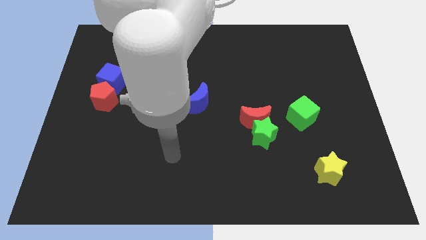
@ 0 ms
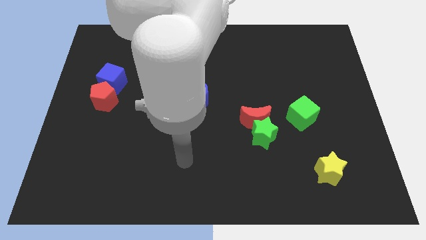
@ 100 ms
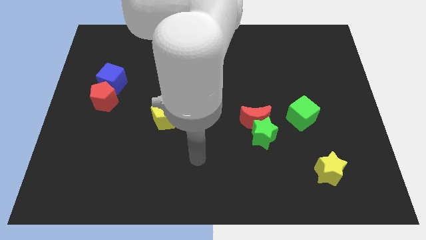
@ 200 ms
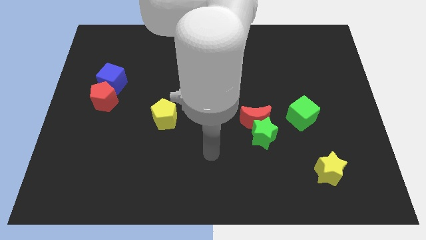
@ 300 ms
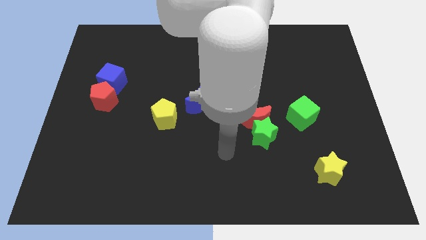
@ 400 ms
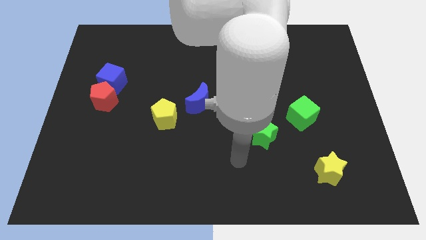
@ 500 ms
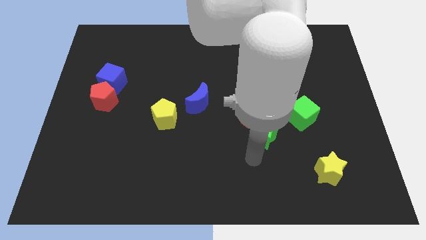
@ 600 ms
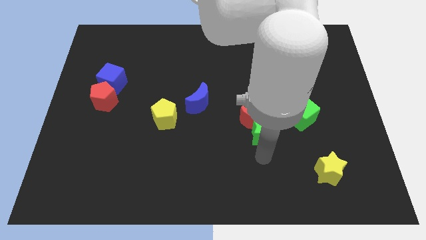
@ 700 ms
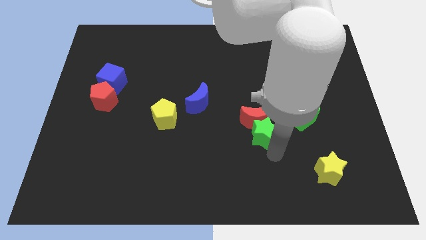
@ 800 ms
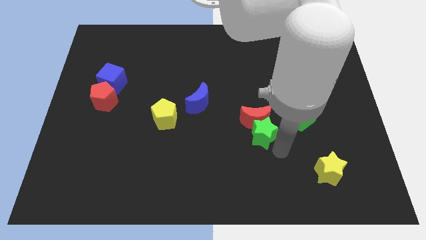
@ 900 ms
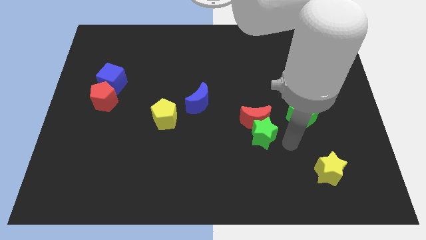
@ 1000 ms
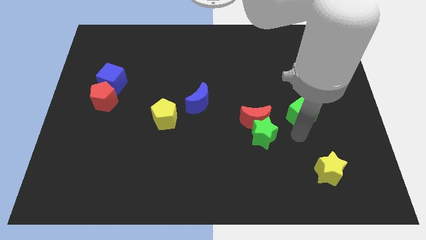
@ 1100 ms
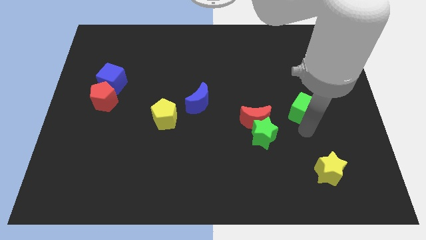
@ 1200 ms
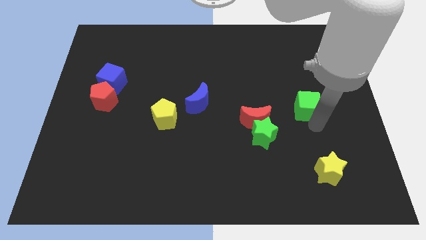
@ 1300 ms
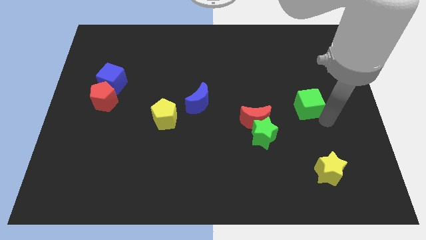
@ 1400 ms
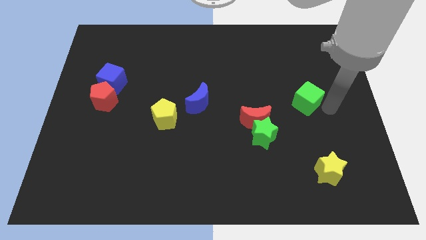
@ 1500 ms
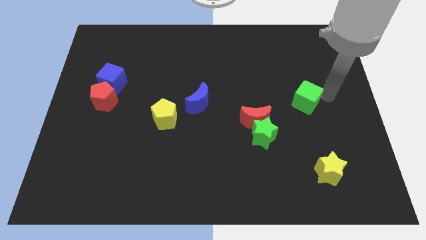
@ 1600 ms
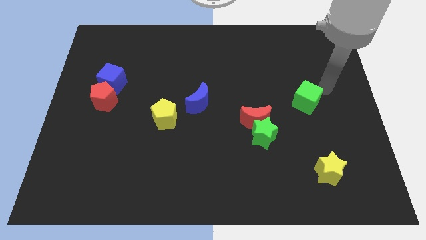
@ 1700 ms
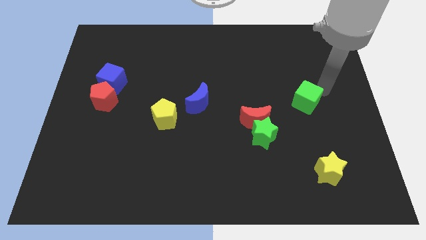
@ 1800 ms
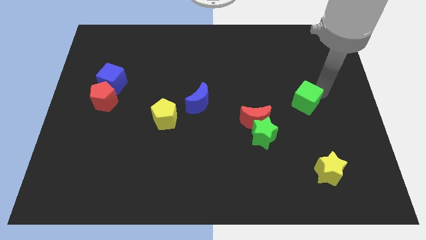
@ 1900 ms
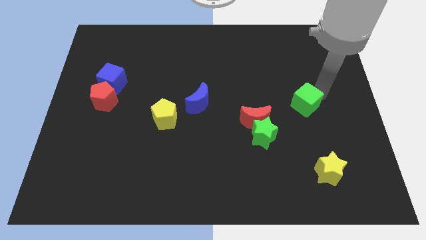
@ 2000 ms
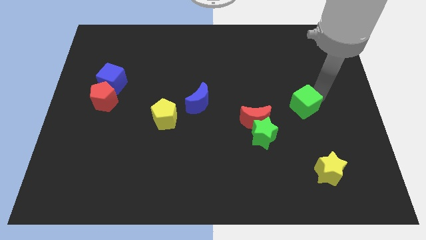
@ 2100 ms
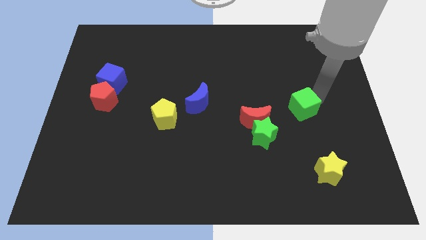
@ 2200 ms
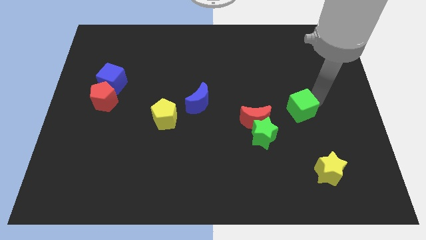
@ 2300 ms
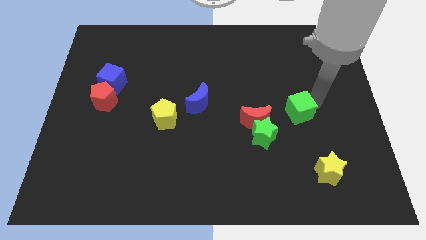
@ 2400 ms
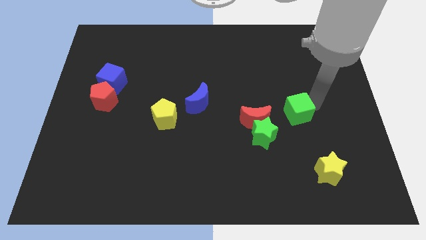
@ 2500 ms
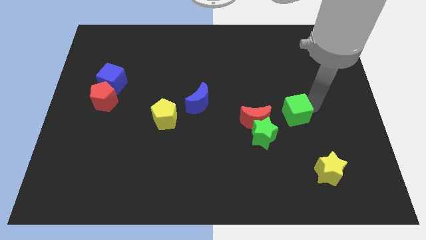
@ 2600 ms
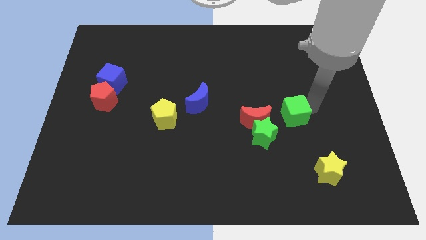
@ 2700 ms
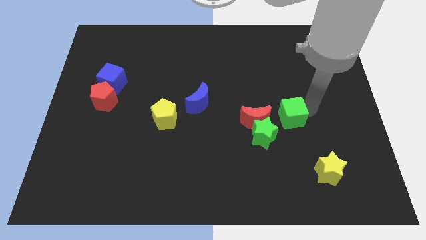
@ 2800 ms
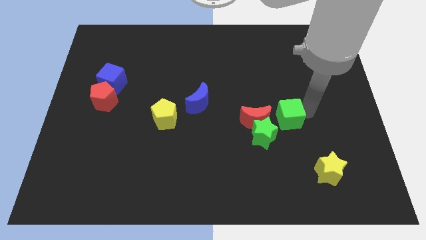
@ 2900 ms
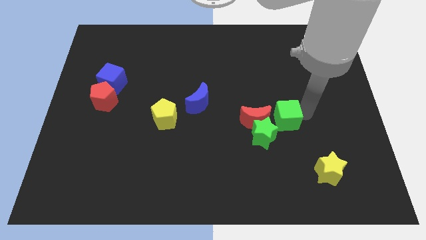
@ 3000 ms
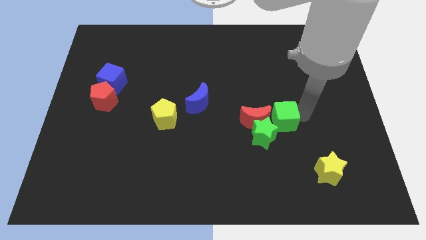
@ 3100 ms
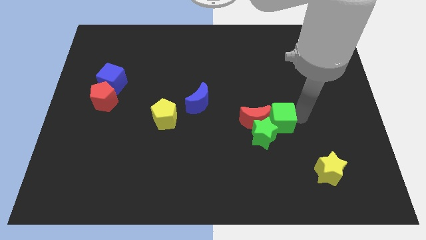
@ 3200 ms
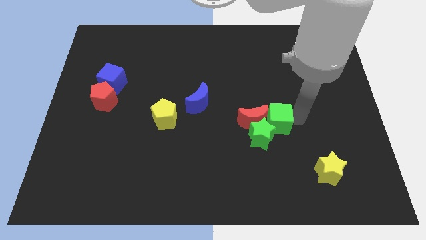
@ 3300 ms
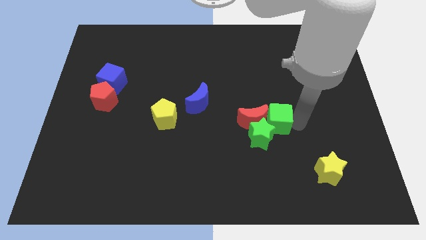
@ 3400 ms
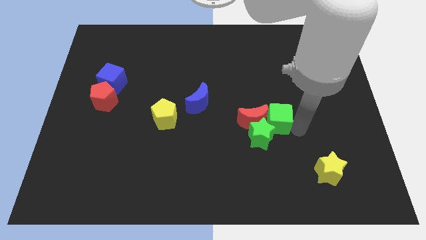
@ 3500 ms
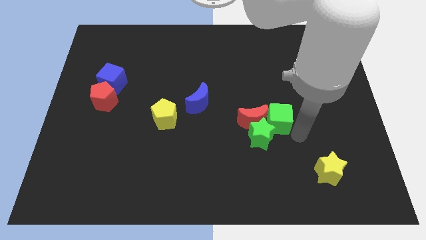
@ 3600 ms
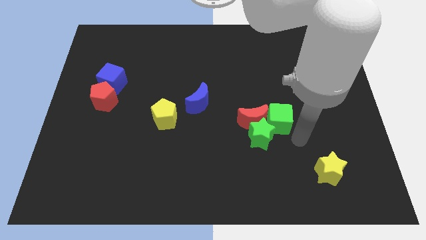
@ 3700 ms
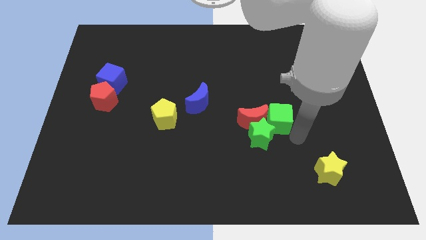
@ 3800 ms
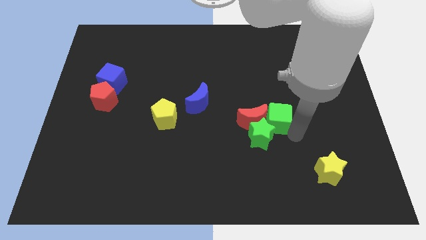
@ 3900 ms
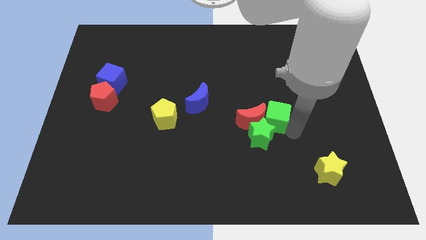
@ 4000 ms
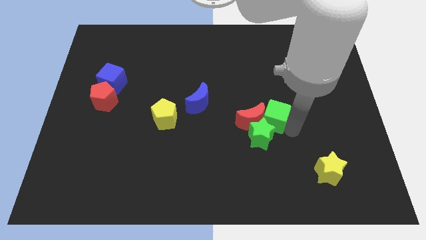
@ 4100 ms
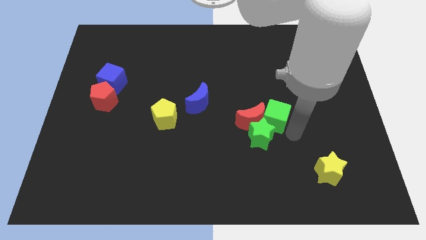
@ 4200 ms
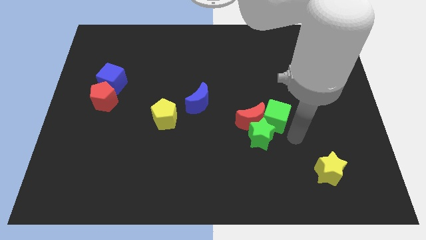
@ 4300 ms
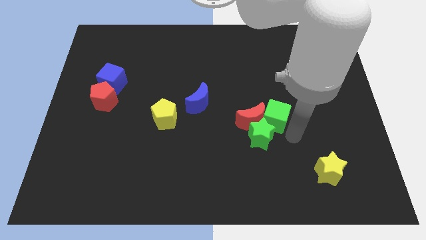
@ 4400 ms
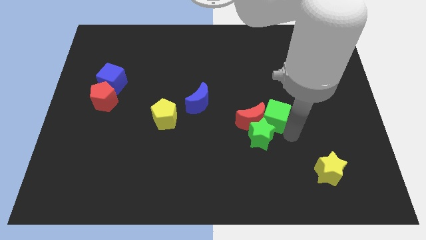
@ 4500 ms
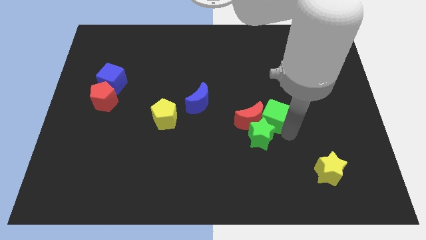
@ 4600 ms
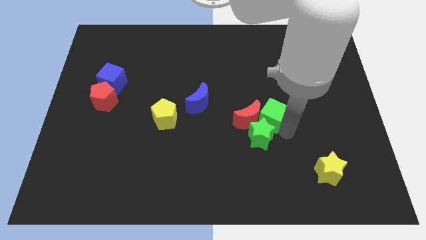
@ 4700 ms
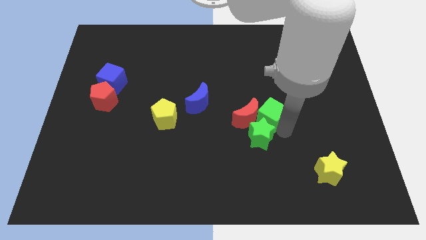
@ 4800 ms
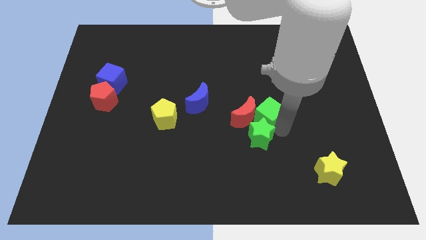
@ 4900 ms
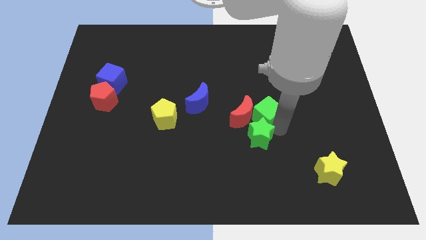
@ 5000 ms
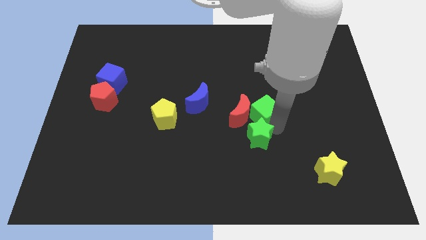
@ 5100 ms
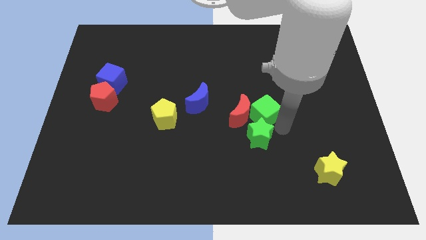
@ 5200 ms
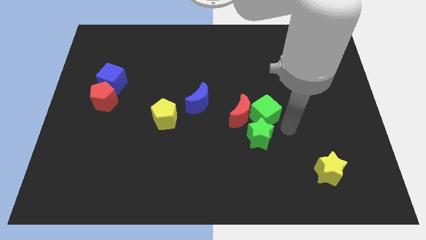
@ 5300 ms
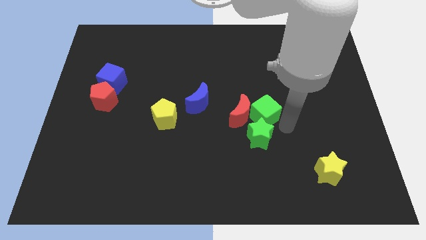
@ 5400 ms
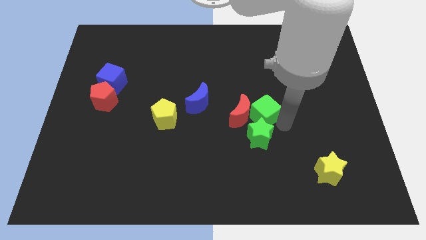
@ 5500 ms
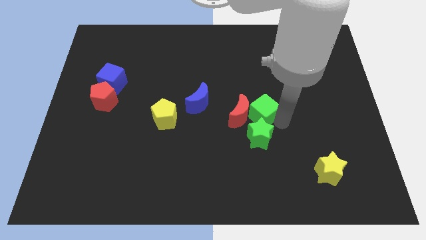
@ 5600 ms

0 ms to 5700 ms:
put the green cube right of the blue moon

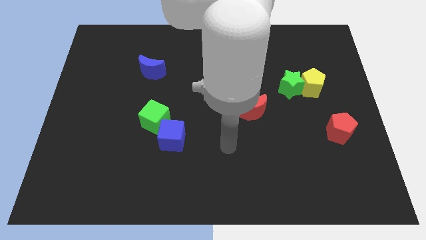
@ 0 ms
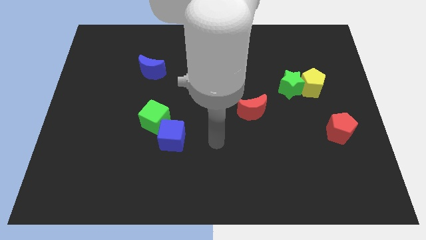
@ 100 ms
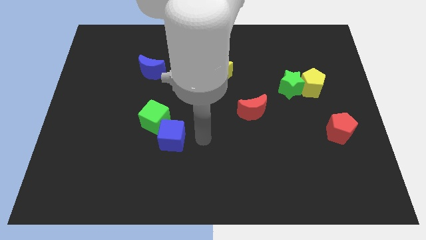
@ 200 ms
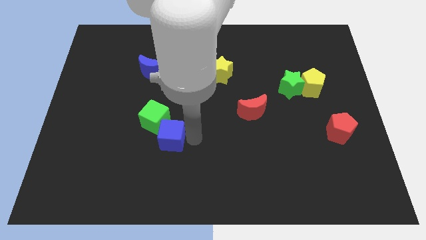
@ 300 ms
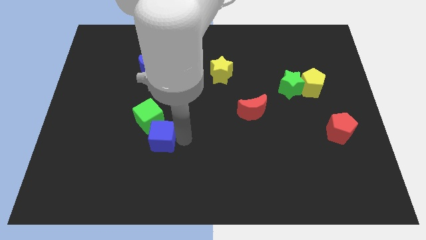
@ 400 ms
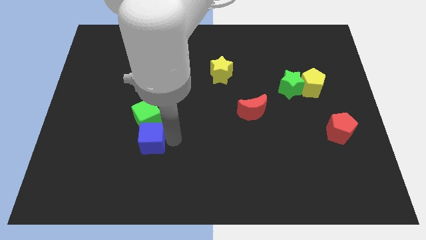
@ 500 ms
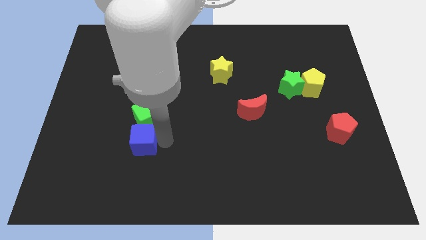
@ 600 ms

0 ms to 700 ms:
put the blue cube diagonally down and to the left of the green cube
